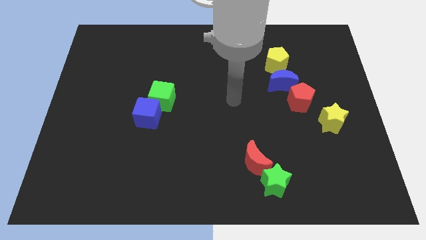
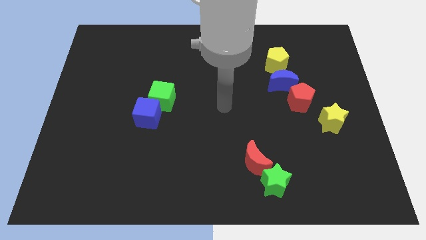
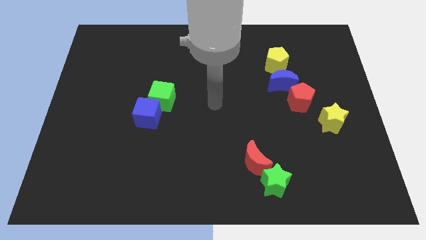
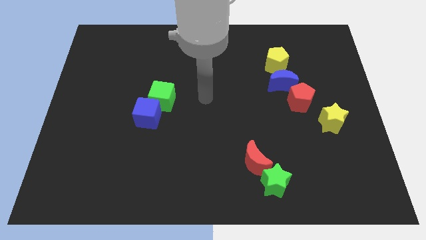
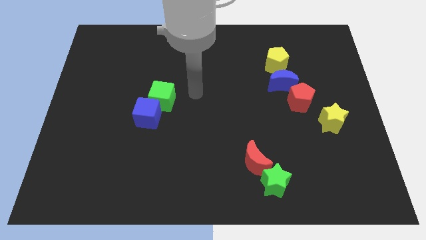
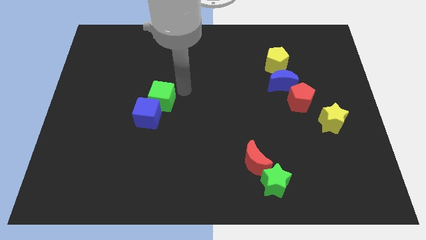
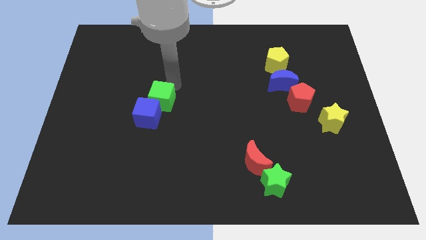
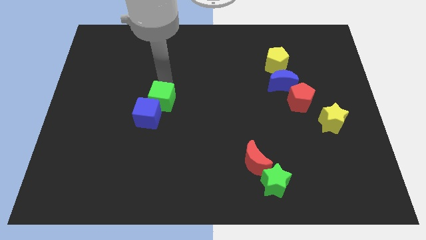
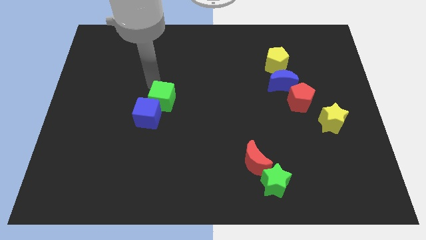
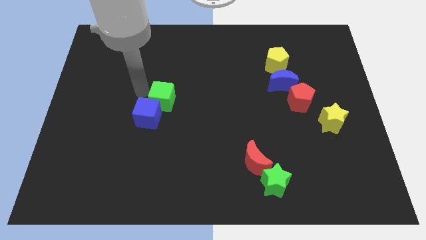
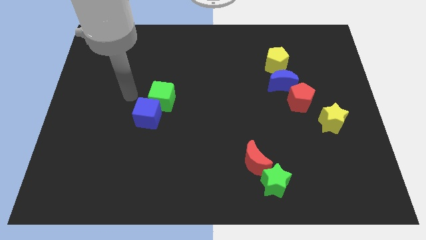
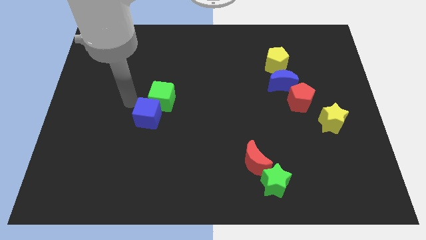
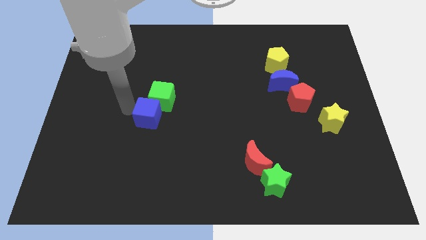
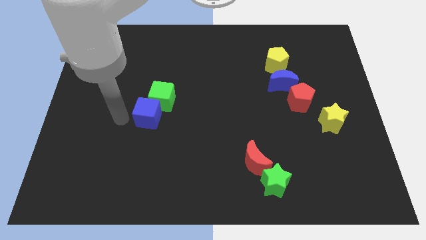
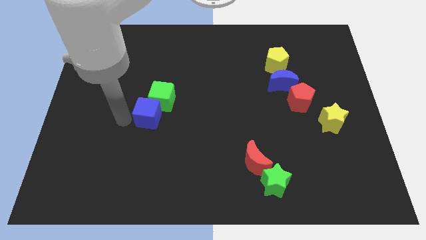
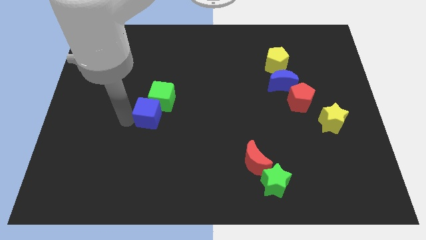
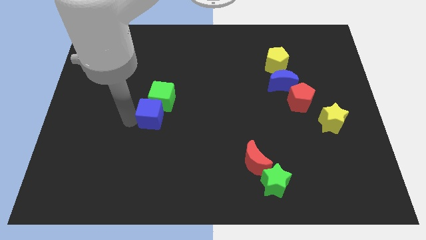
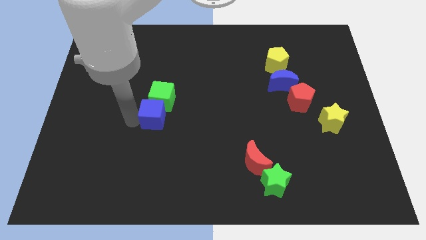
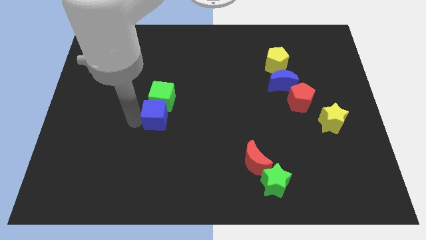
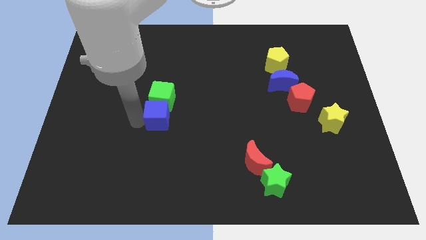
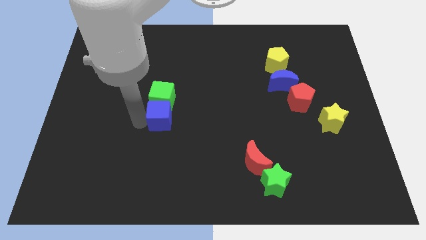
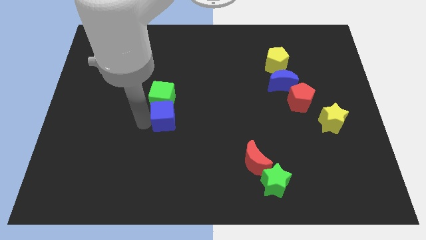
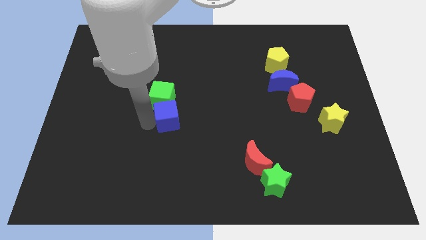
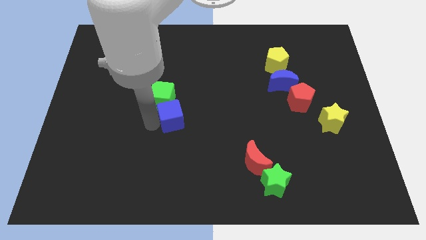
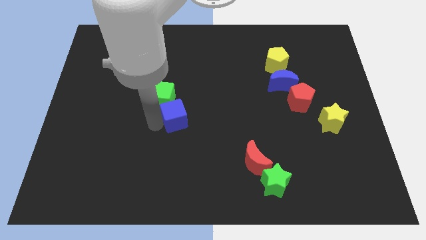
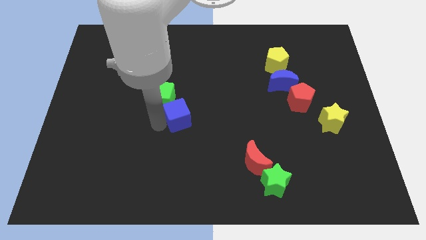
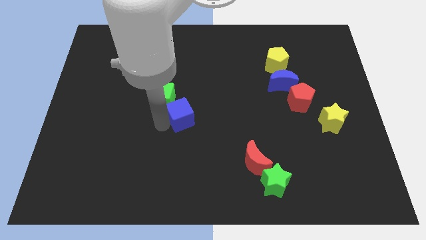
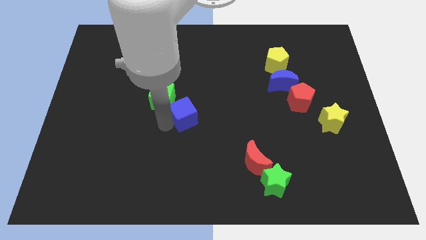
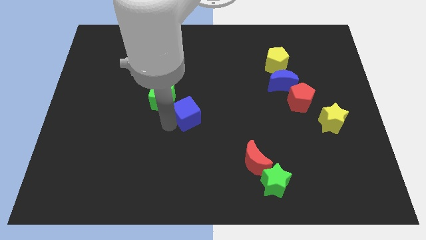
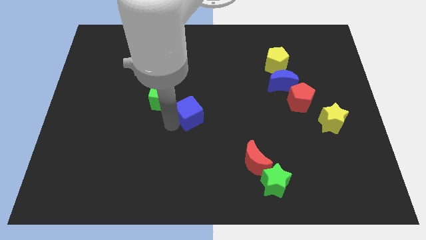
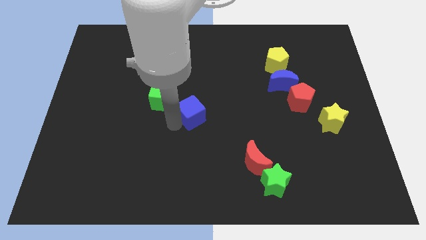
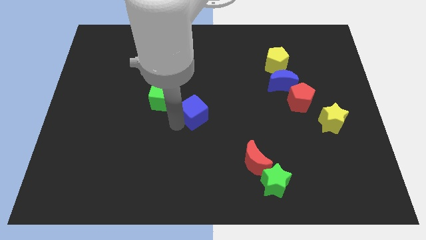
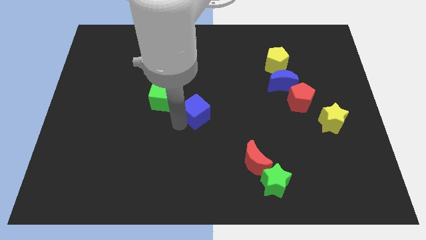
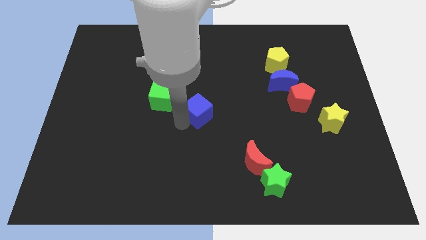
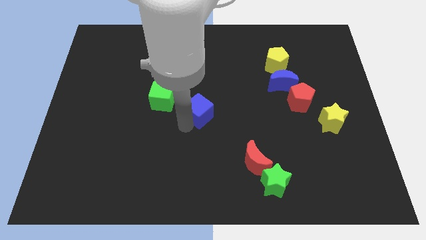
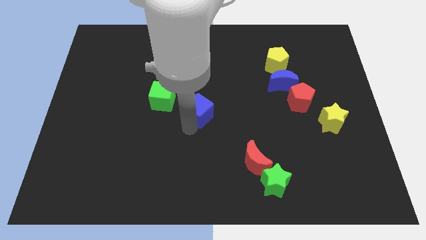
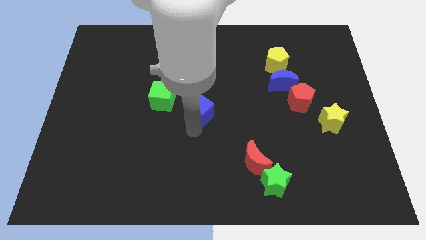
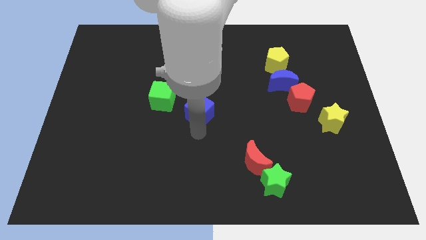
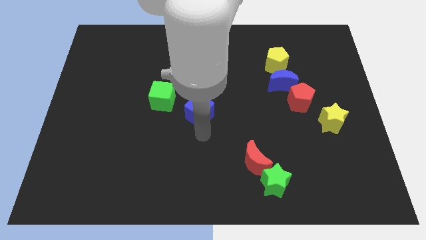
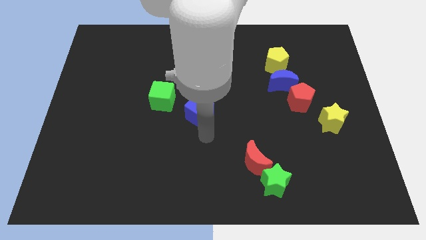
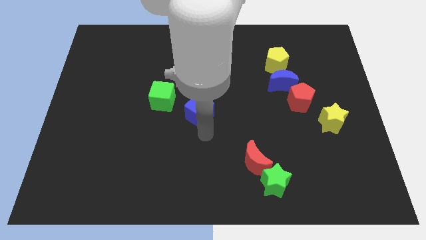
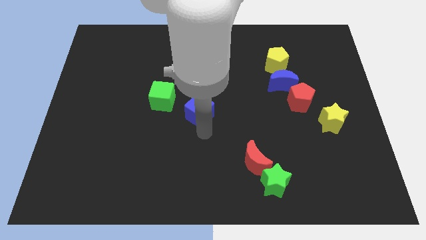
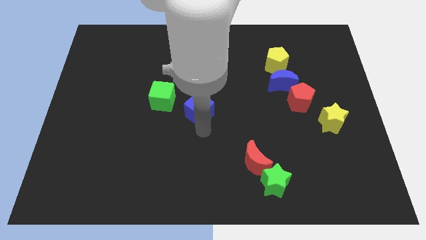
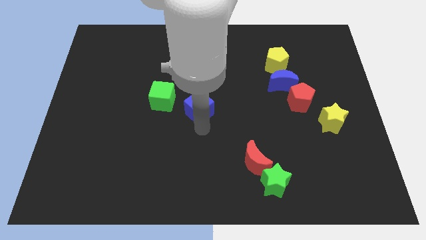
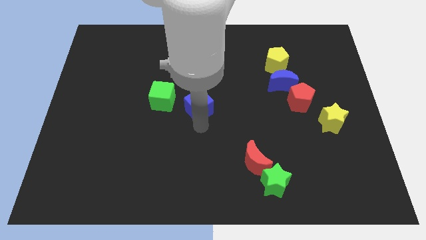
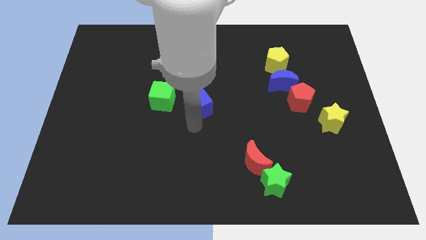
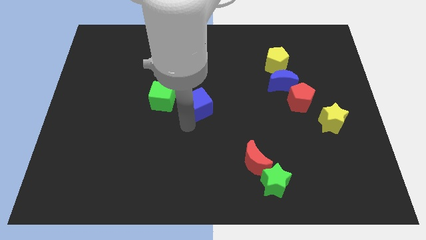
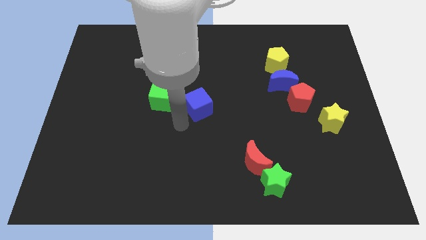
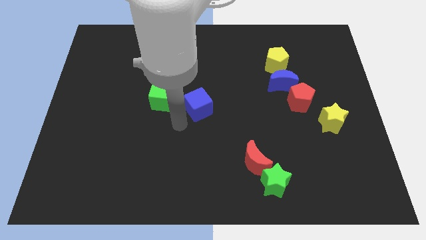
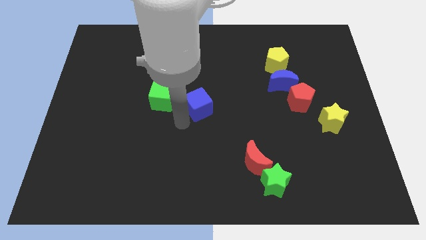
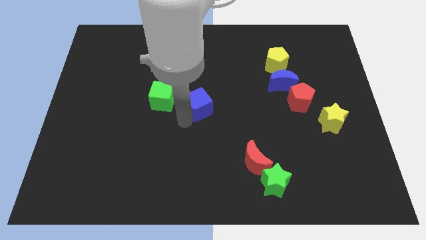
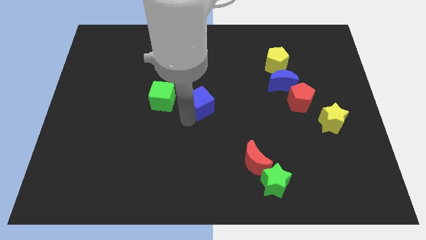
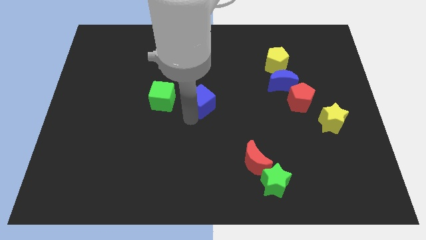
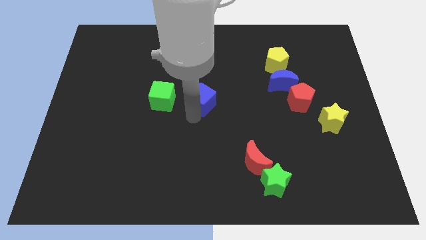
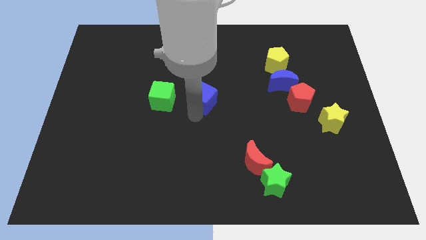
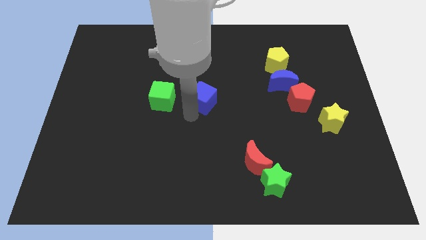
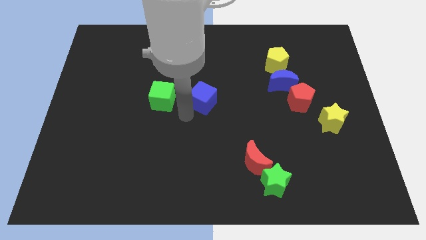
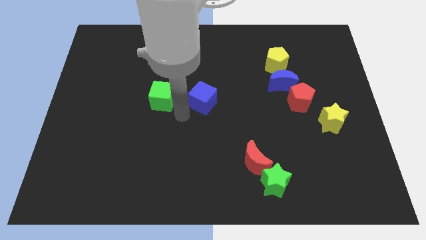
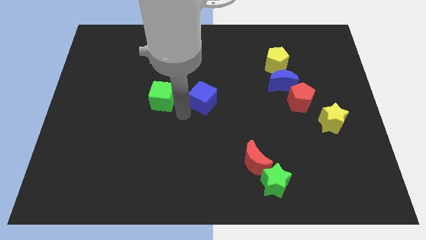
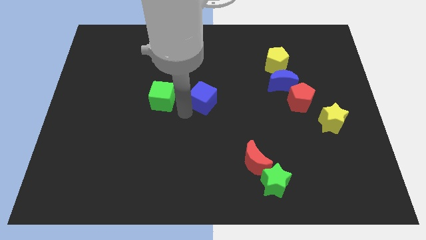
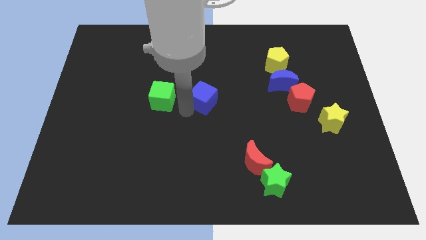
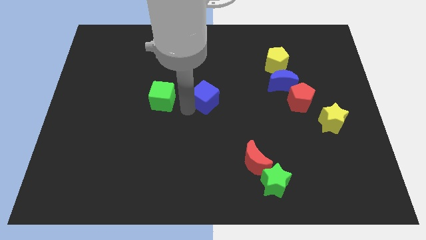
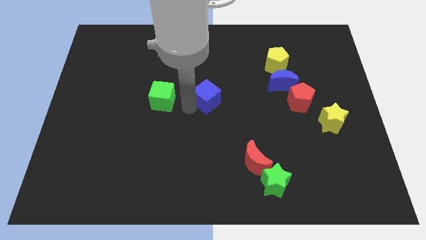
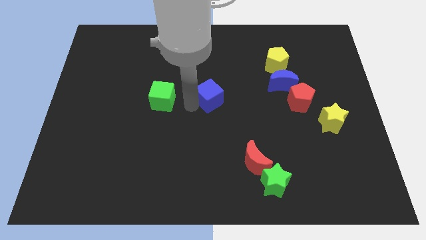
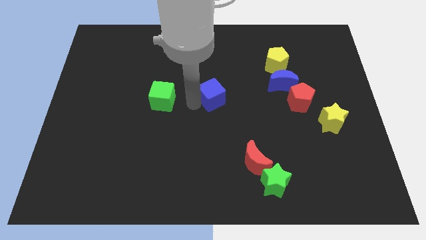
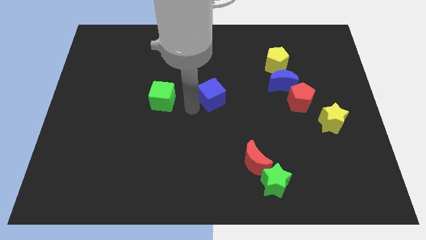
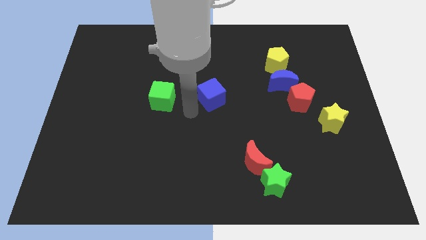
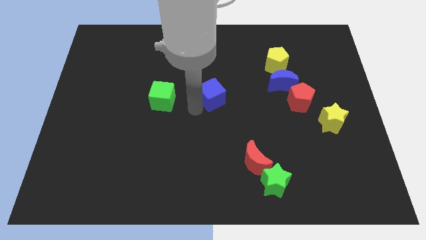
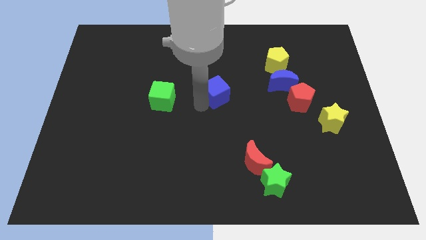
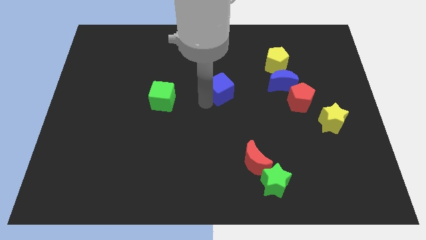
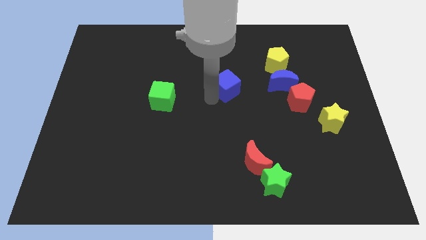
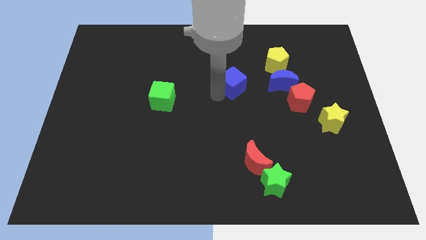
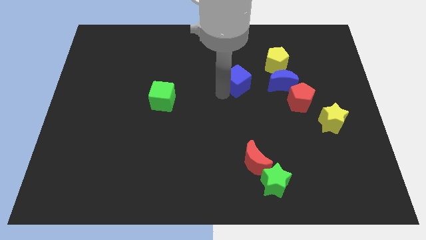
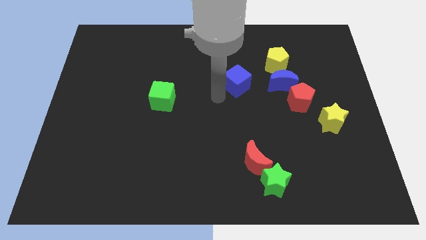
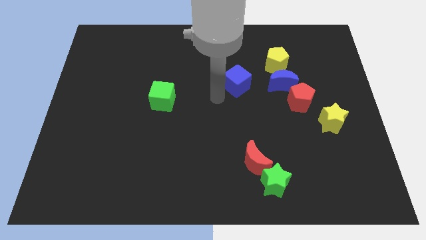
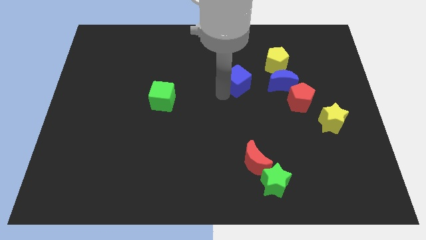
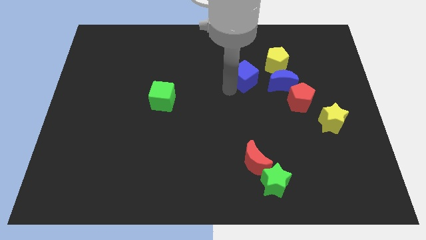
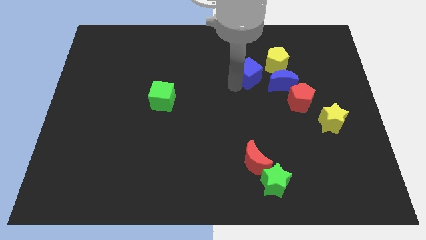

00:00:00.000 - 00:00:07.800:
push the blue cube to the top left side of the blue moon

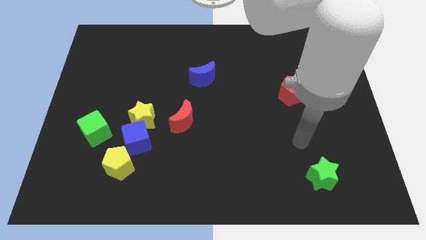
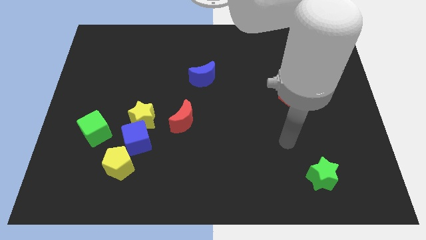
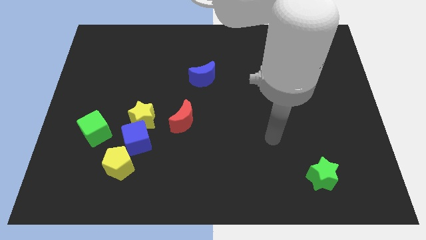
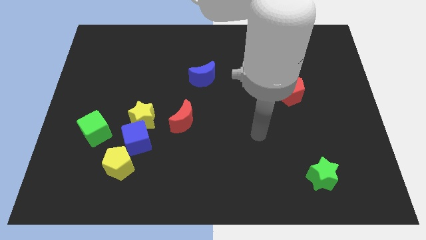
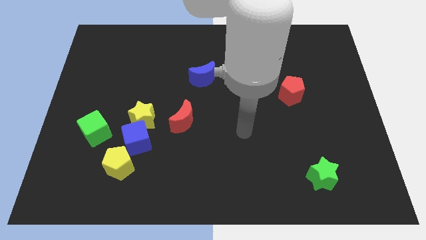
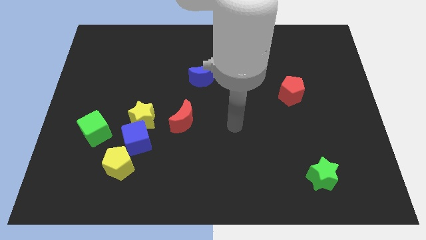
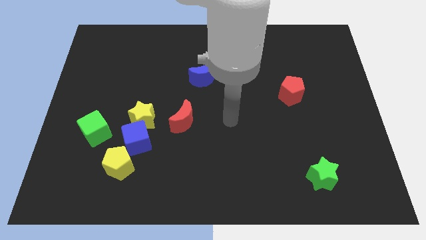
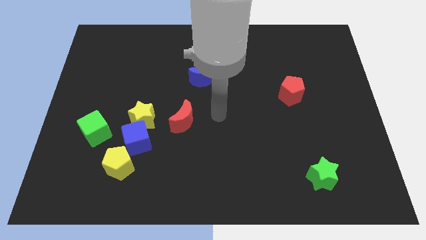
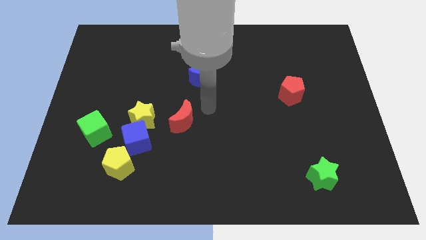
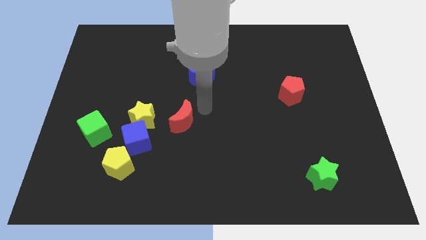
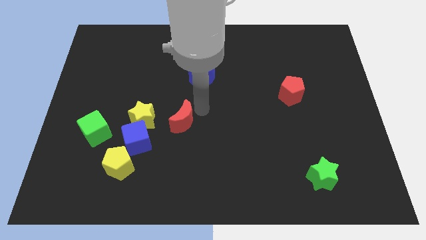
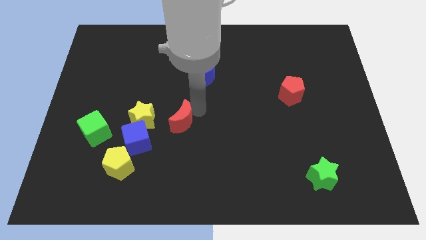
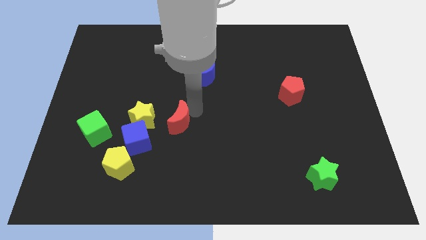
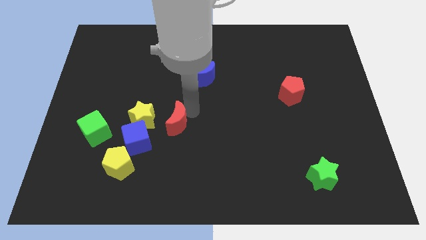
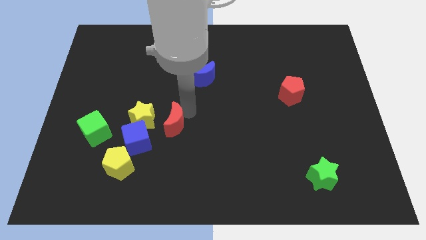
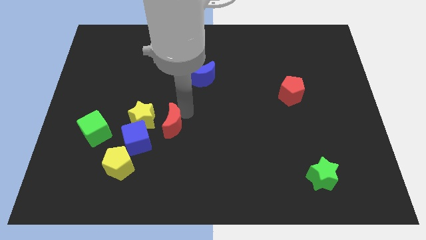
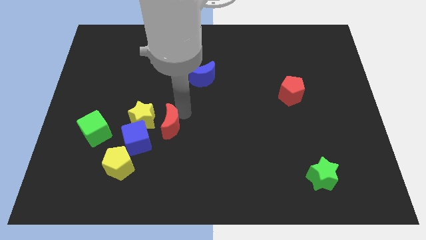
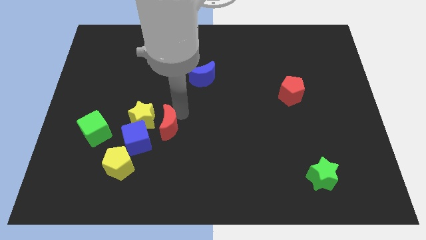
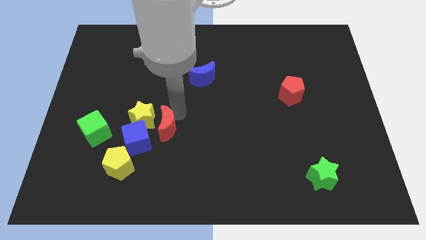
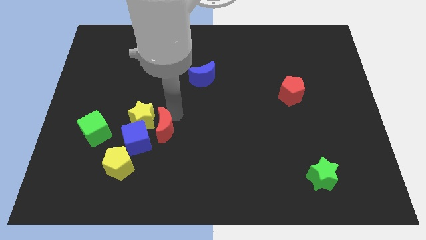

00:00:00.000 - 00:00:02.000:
push the red moon to the top right side of the yellow pentagon
